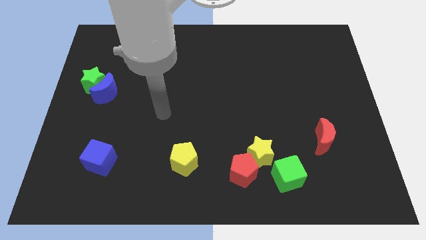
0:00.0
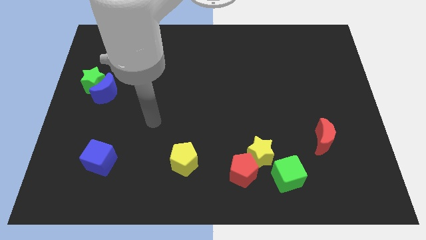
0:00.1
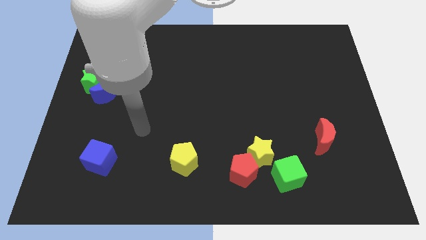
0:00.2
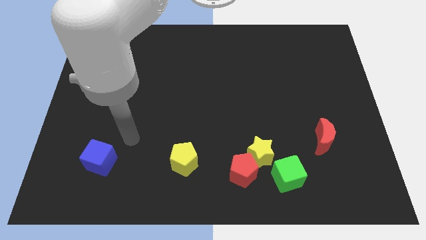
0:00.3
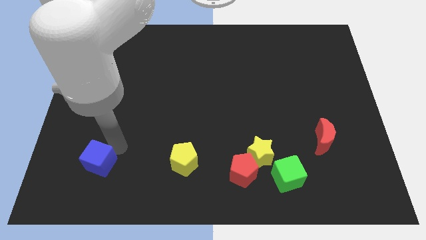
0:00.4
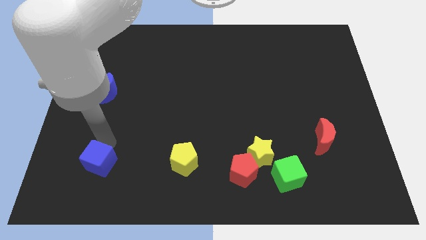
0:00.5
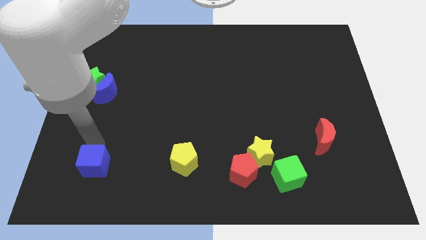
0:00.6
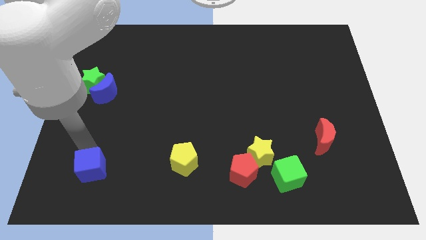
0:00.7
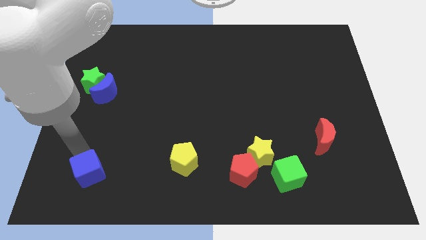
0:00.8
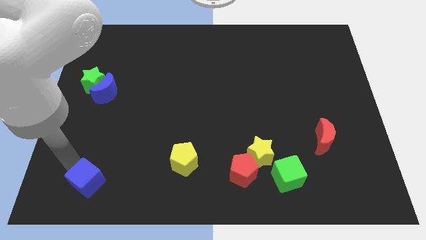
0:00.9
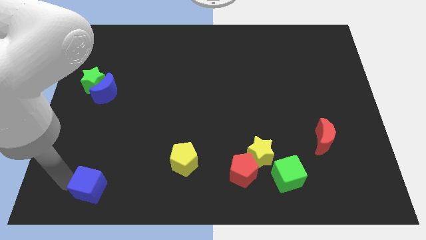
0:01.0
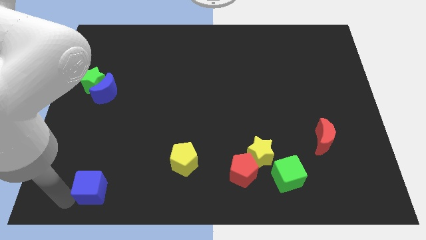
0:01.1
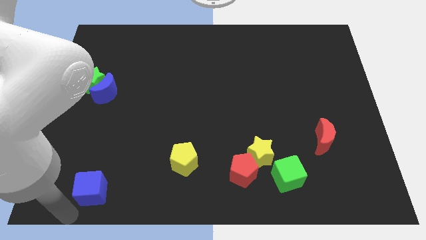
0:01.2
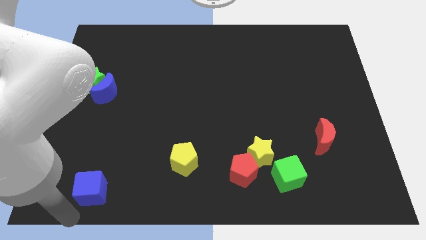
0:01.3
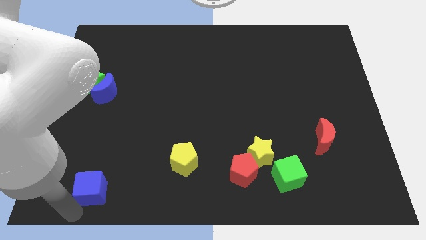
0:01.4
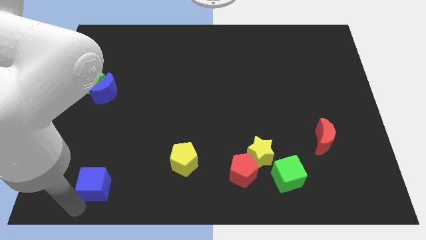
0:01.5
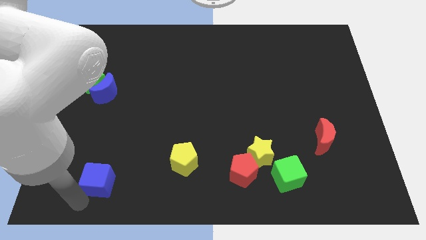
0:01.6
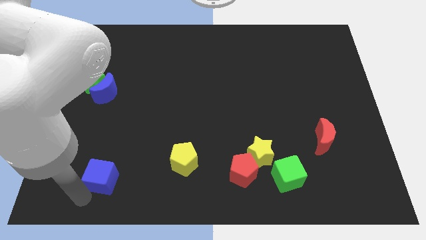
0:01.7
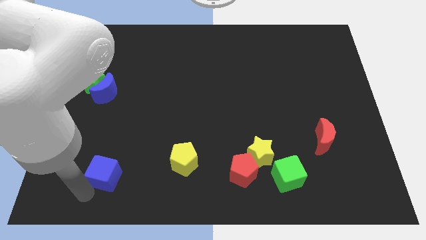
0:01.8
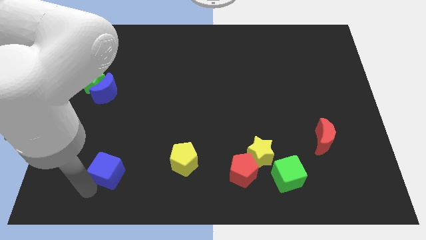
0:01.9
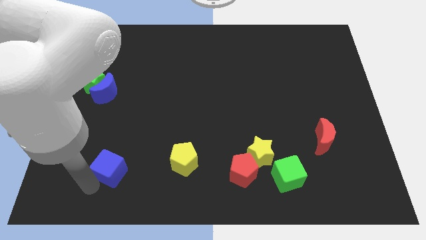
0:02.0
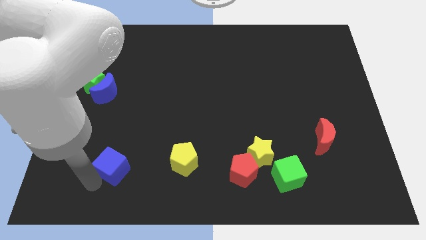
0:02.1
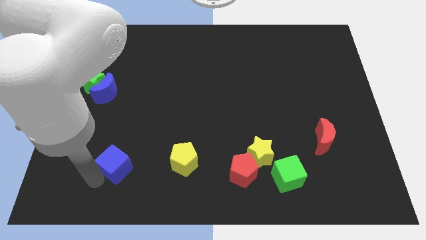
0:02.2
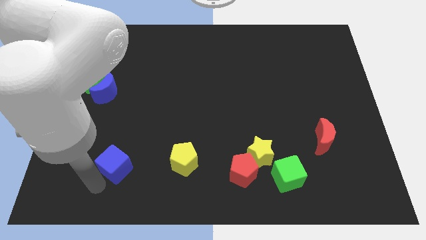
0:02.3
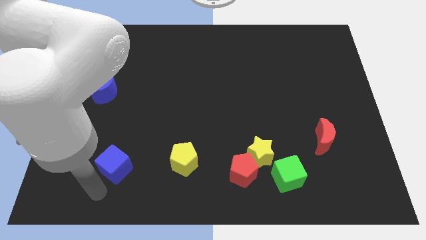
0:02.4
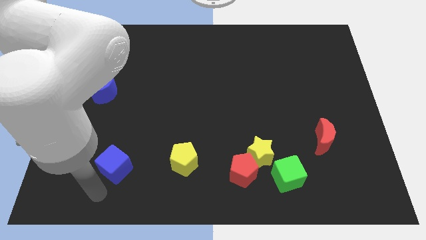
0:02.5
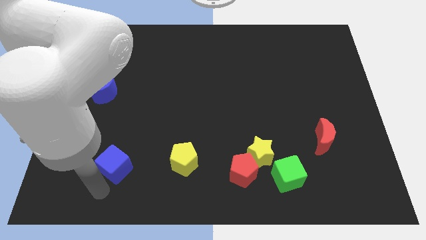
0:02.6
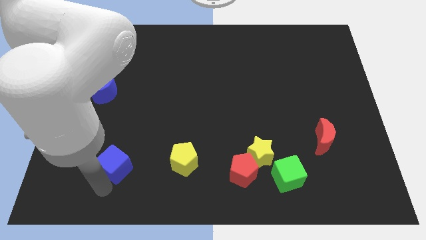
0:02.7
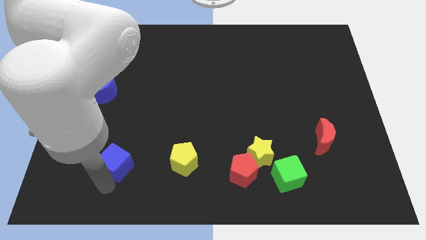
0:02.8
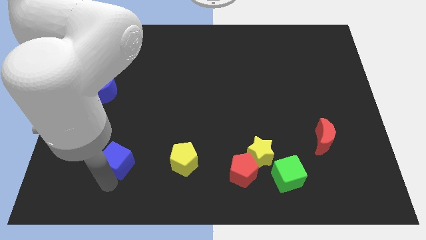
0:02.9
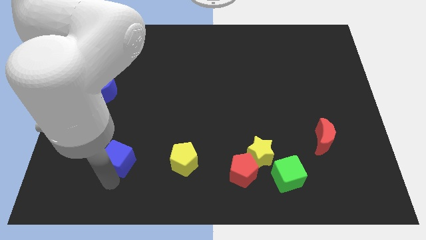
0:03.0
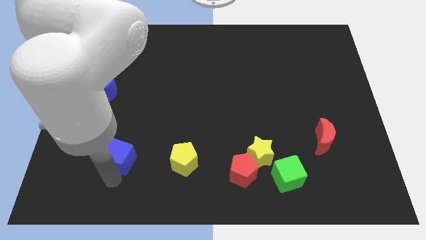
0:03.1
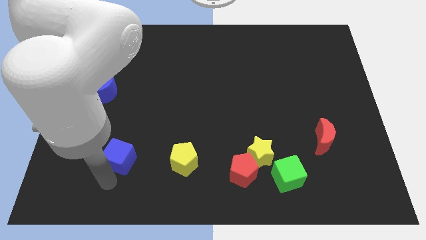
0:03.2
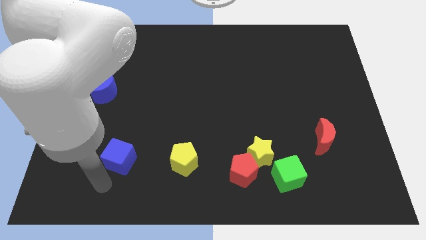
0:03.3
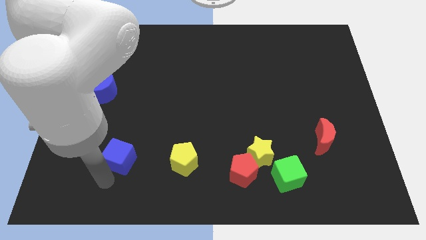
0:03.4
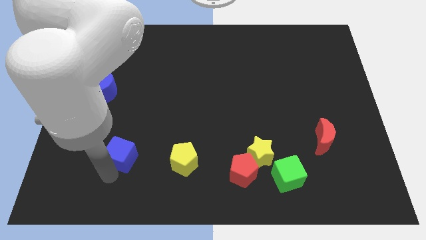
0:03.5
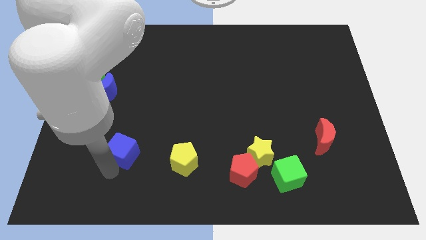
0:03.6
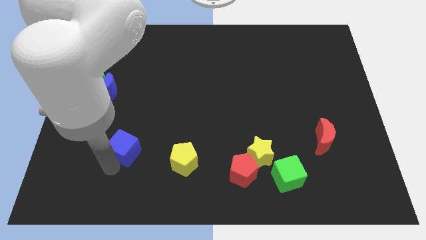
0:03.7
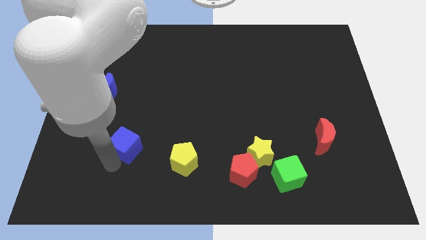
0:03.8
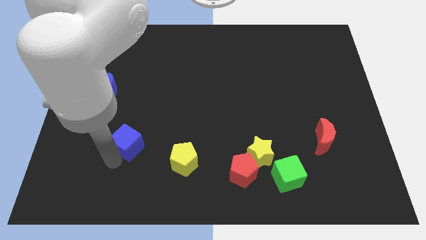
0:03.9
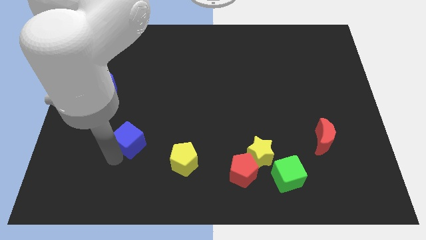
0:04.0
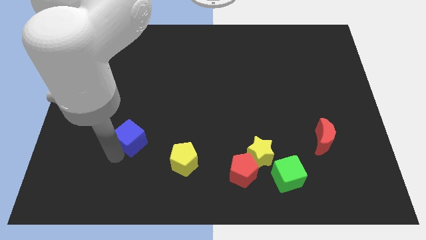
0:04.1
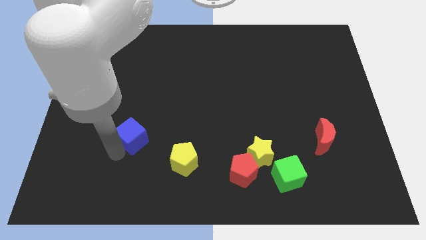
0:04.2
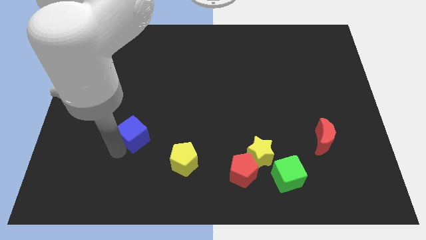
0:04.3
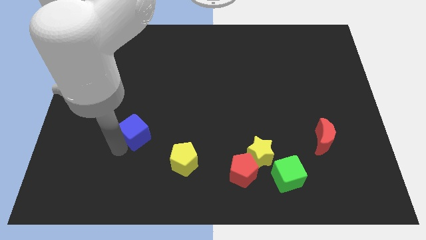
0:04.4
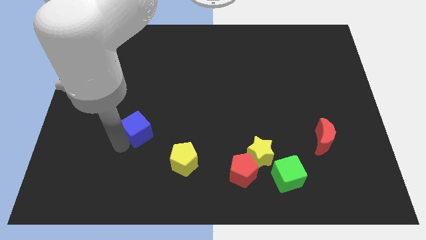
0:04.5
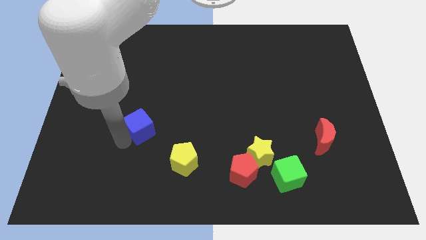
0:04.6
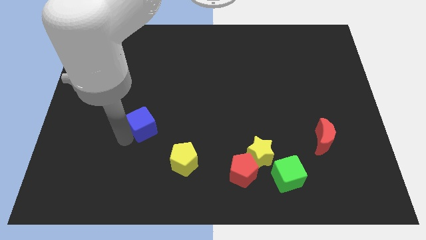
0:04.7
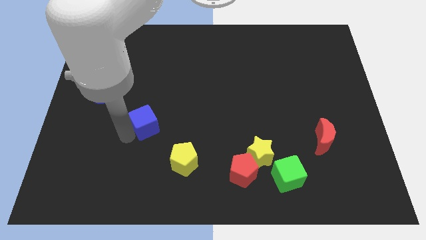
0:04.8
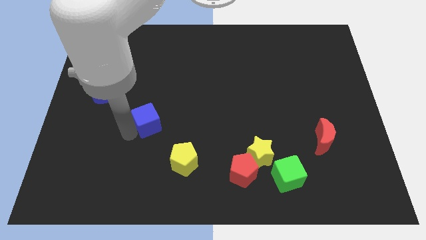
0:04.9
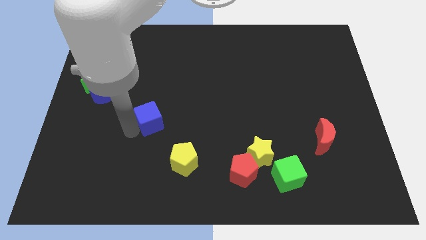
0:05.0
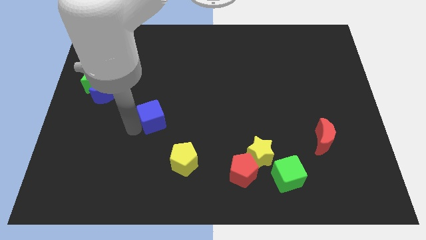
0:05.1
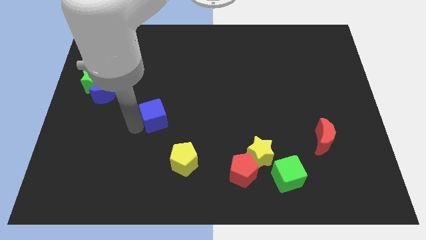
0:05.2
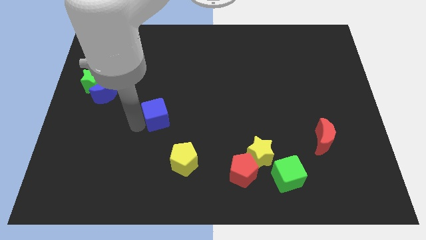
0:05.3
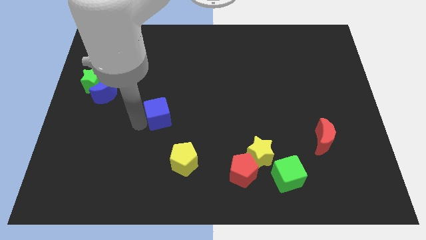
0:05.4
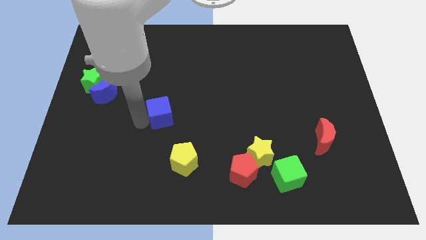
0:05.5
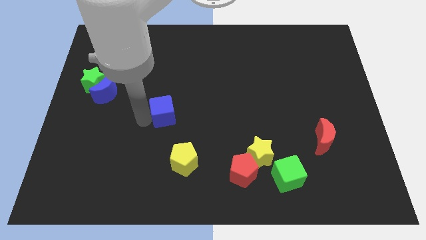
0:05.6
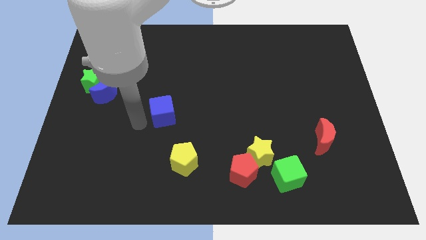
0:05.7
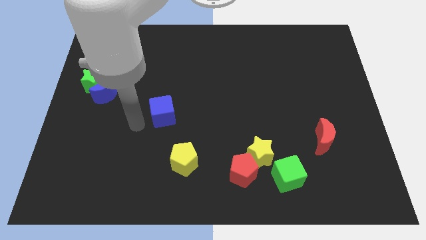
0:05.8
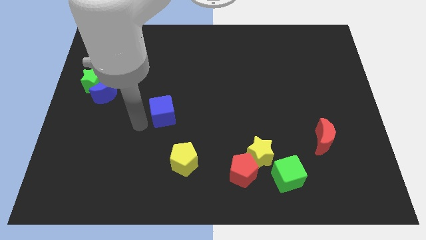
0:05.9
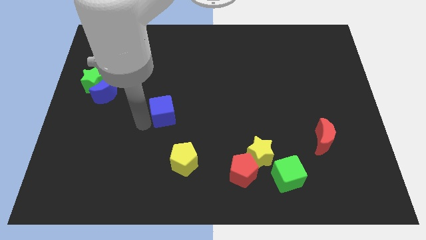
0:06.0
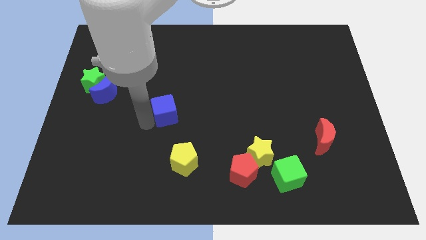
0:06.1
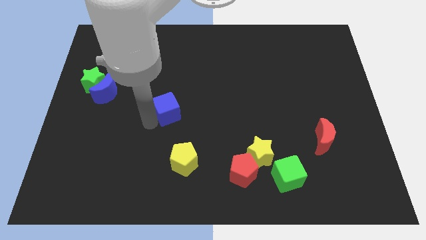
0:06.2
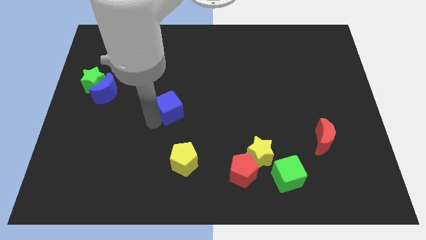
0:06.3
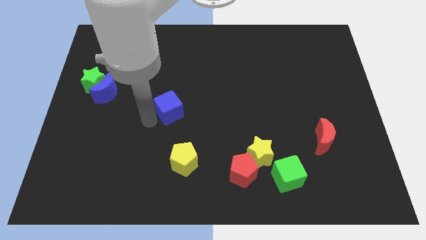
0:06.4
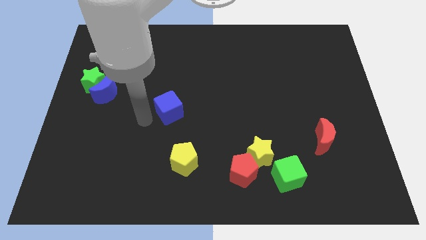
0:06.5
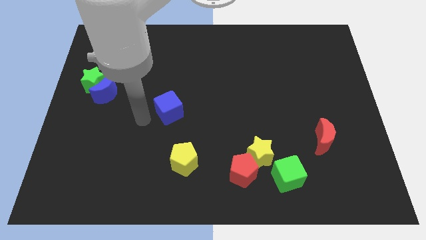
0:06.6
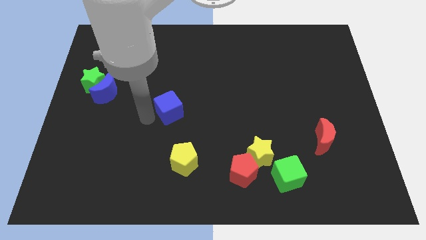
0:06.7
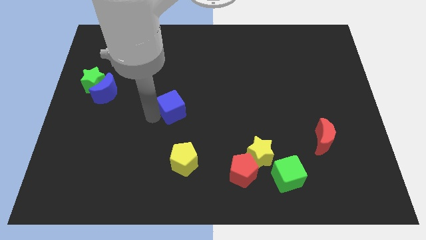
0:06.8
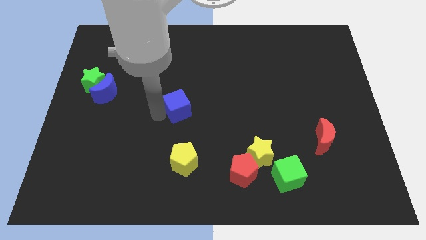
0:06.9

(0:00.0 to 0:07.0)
move the blue cube diagonally upwards and right

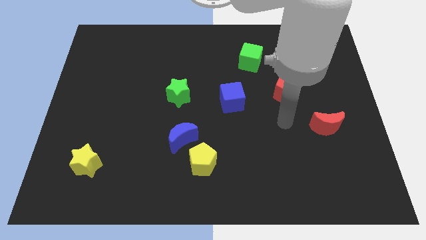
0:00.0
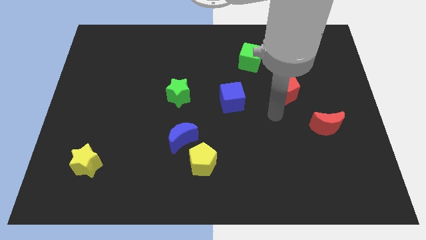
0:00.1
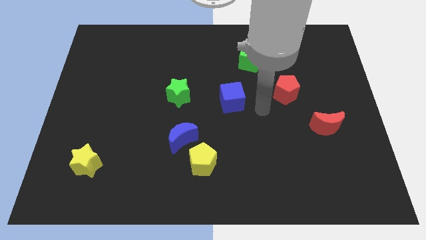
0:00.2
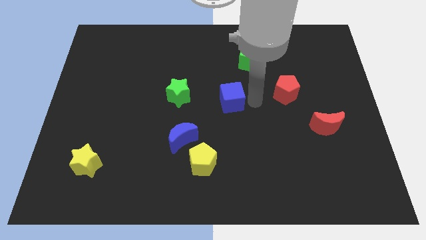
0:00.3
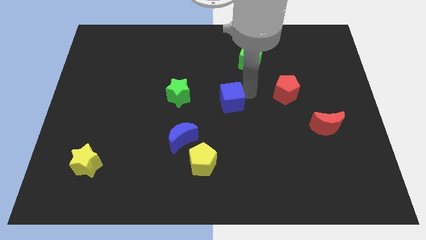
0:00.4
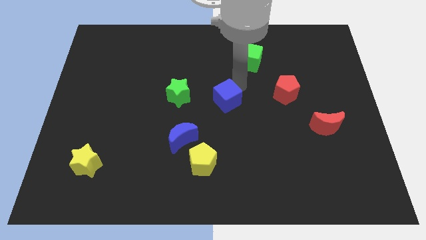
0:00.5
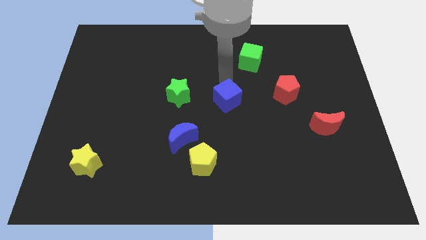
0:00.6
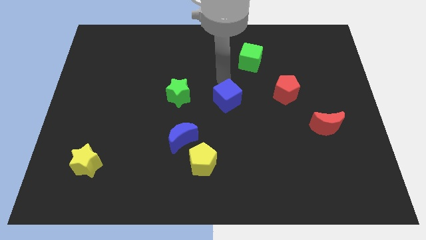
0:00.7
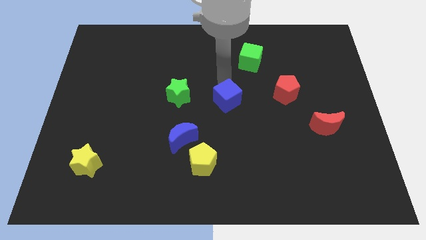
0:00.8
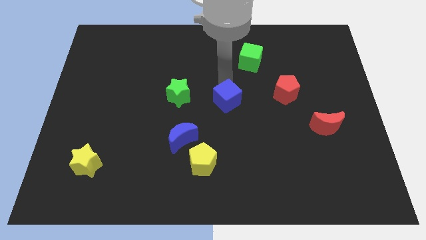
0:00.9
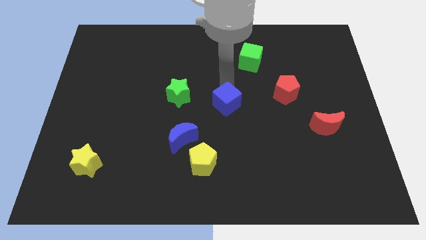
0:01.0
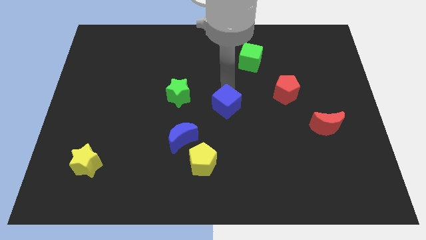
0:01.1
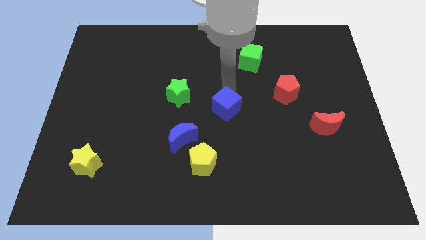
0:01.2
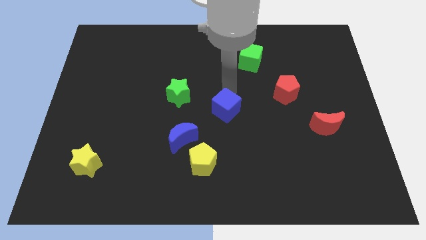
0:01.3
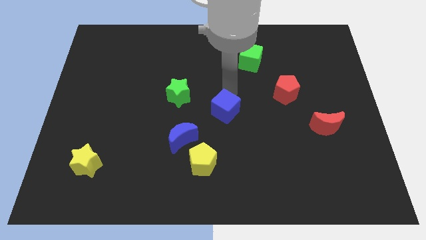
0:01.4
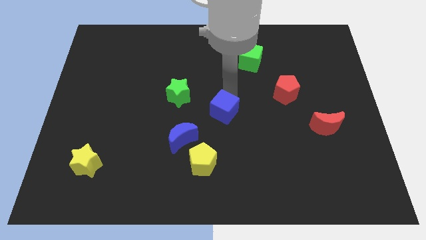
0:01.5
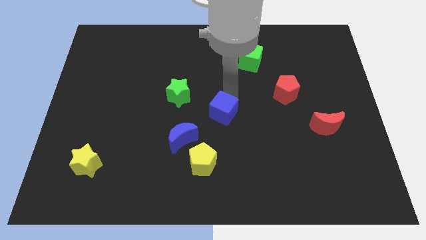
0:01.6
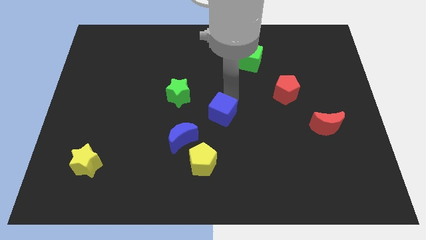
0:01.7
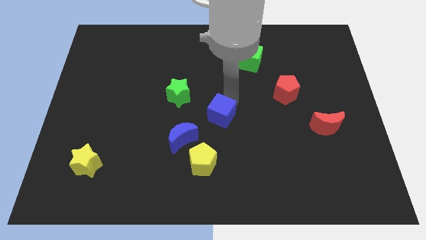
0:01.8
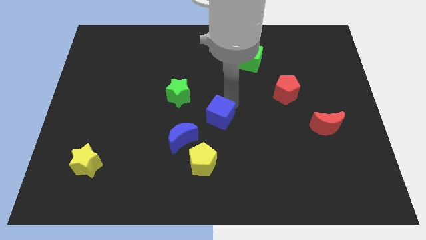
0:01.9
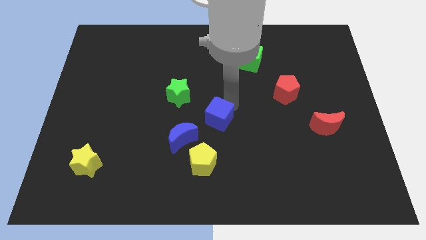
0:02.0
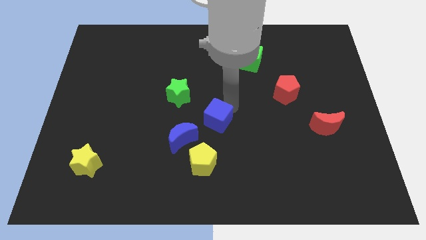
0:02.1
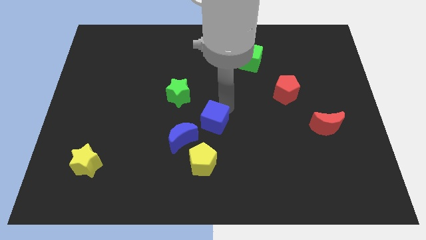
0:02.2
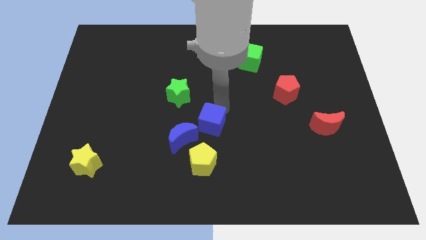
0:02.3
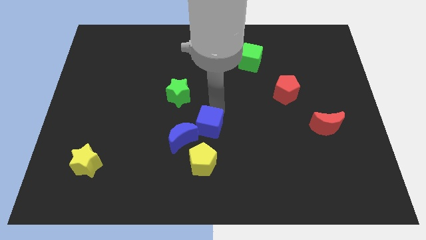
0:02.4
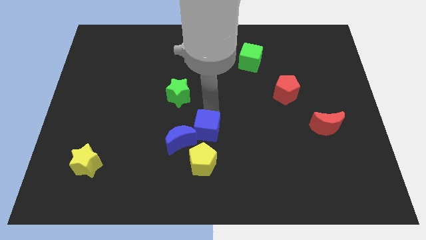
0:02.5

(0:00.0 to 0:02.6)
move the blue cube downwards a little bit
